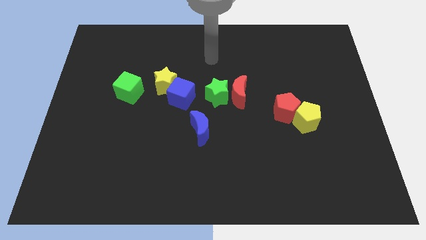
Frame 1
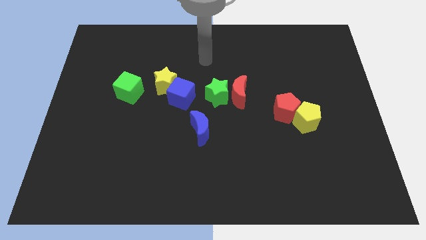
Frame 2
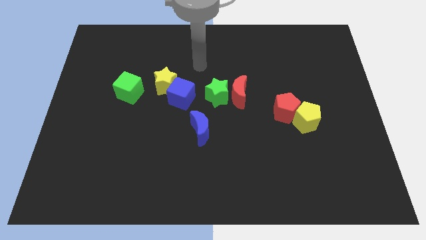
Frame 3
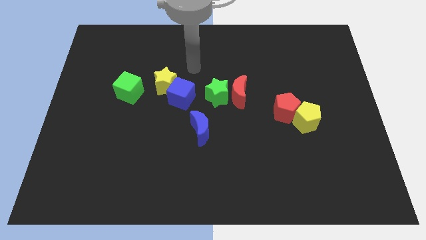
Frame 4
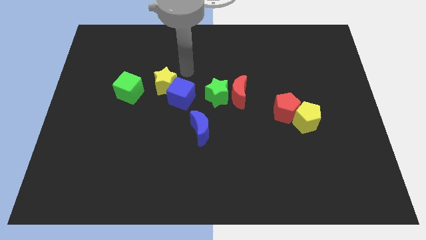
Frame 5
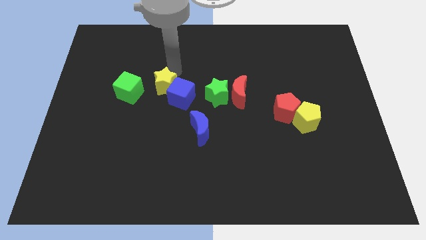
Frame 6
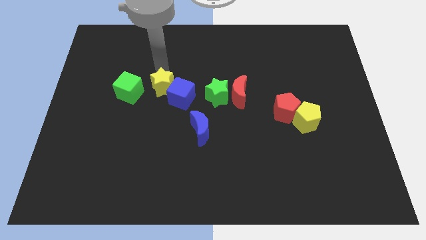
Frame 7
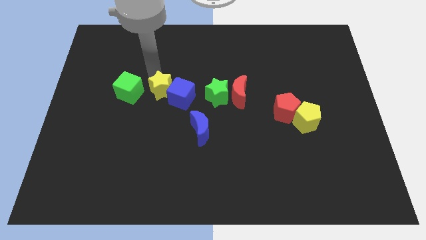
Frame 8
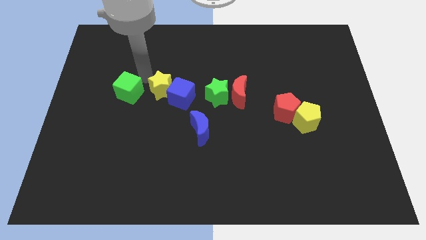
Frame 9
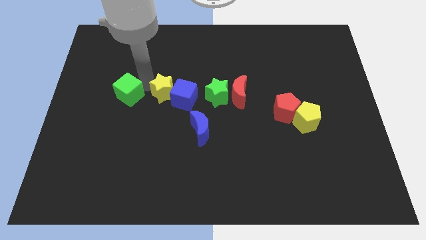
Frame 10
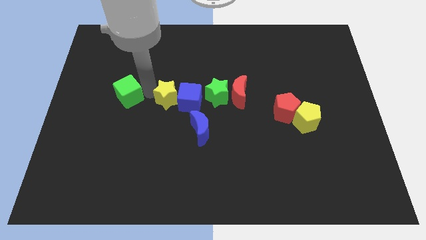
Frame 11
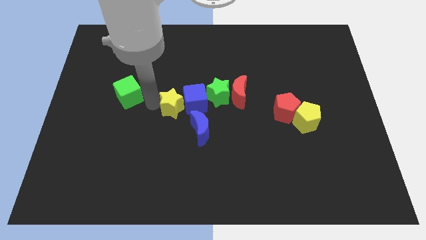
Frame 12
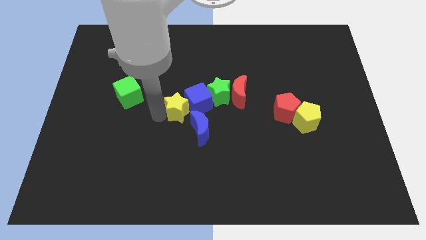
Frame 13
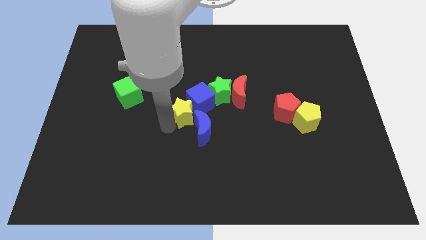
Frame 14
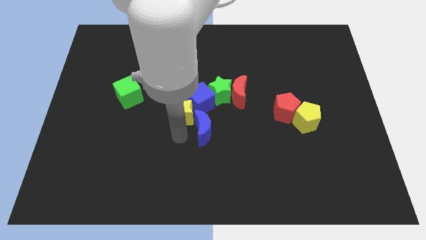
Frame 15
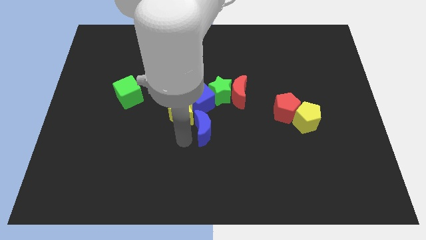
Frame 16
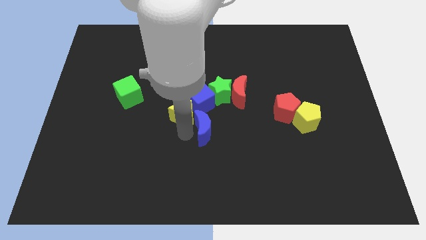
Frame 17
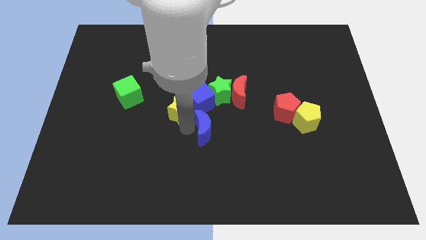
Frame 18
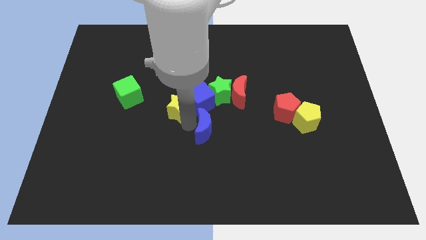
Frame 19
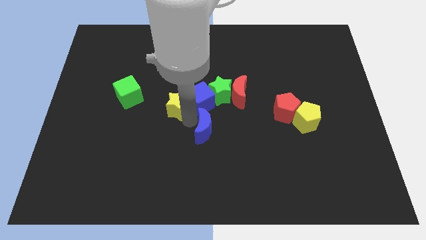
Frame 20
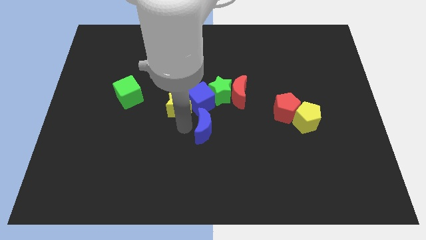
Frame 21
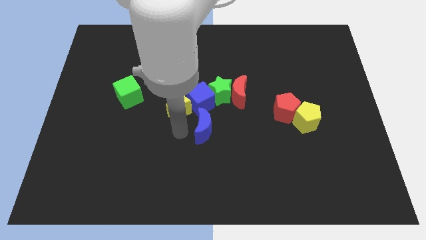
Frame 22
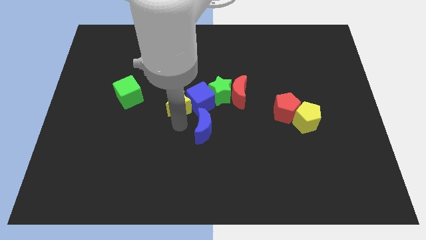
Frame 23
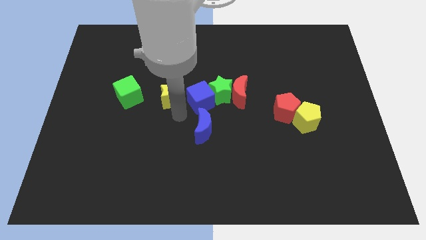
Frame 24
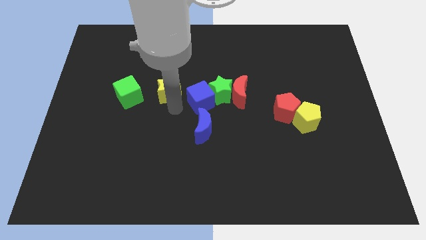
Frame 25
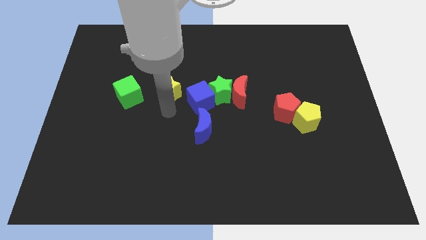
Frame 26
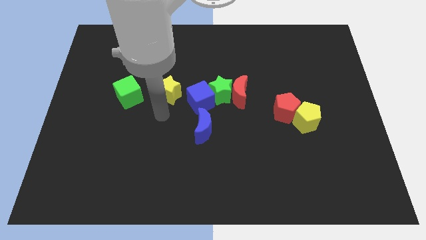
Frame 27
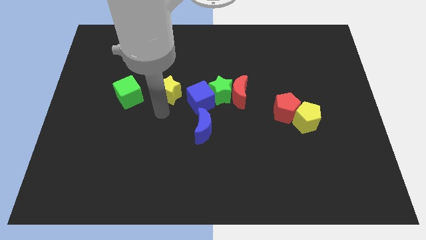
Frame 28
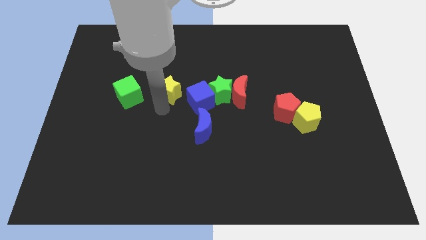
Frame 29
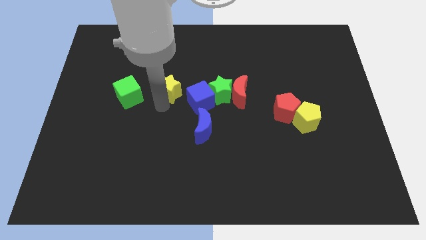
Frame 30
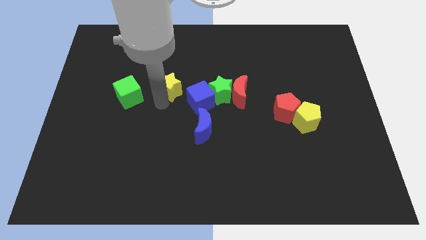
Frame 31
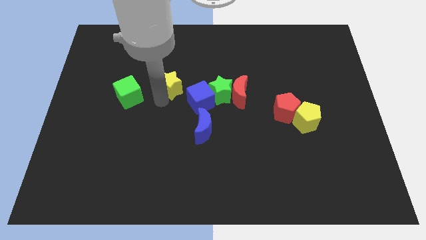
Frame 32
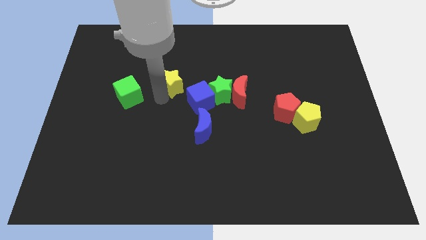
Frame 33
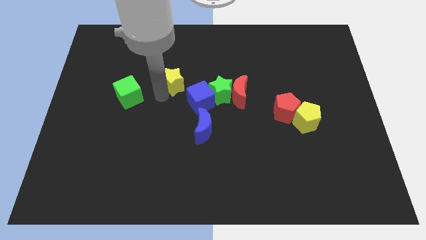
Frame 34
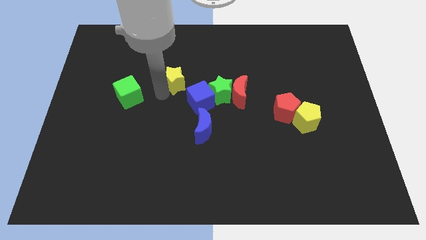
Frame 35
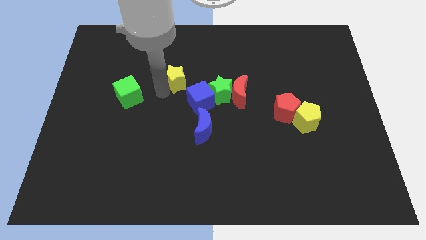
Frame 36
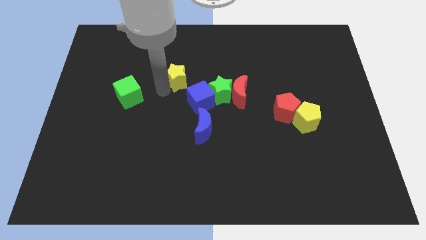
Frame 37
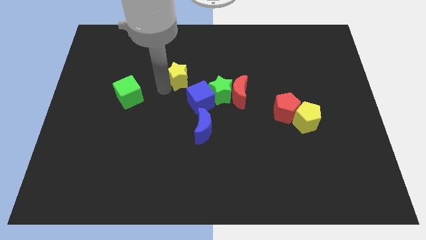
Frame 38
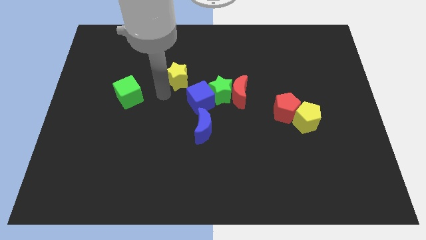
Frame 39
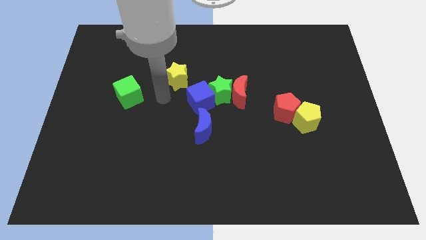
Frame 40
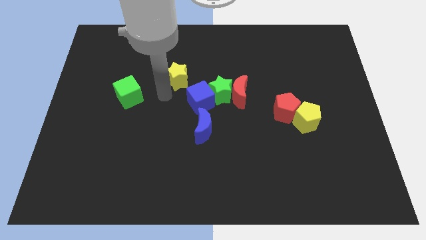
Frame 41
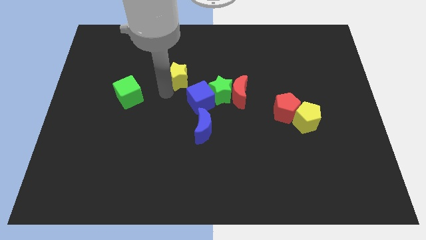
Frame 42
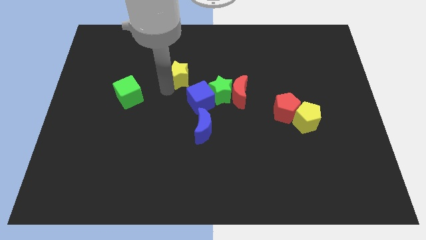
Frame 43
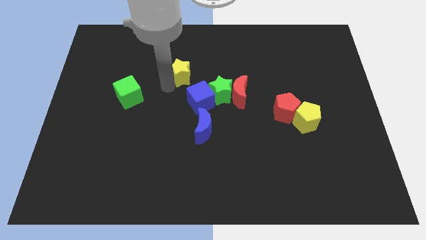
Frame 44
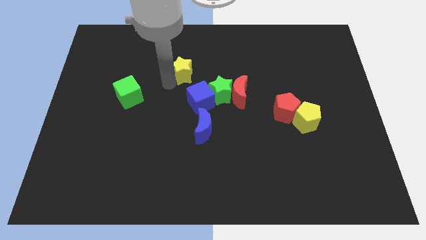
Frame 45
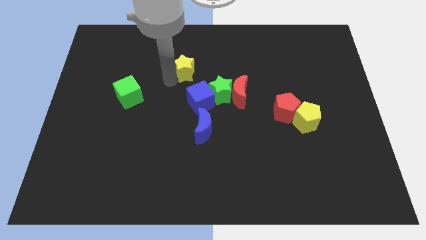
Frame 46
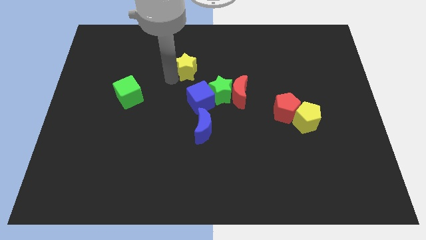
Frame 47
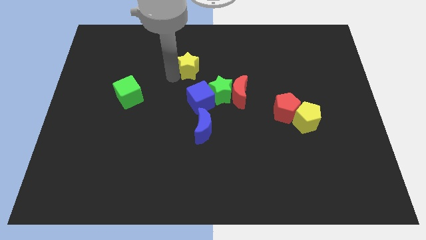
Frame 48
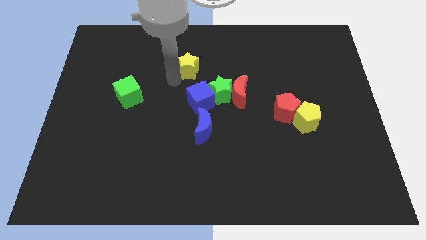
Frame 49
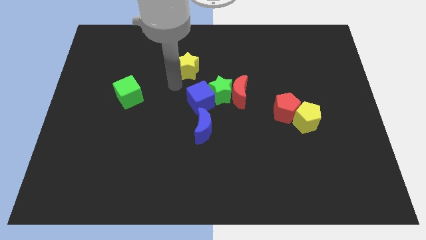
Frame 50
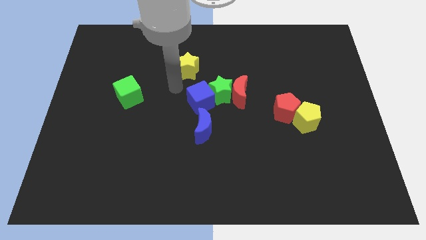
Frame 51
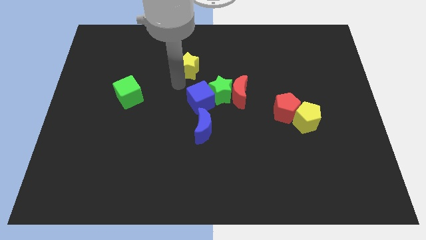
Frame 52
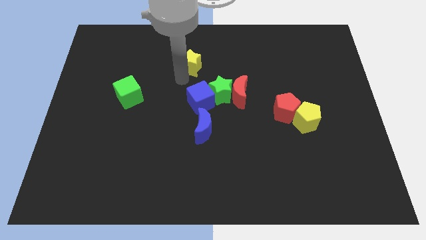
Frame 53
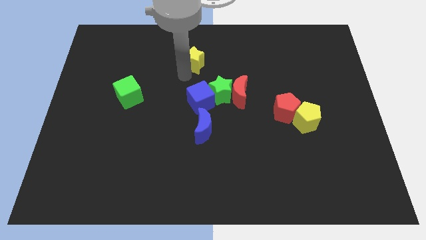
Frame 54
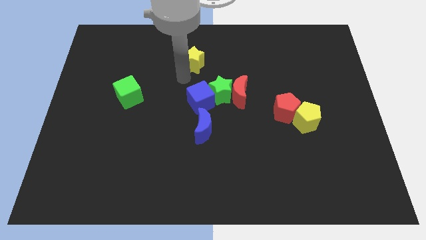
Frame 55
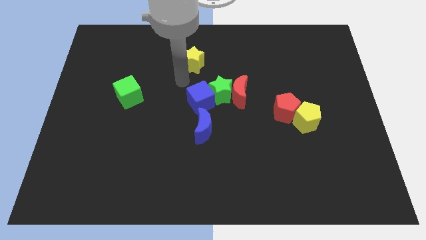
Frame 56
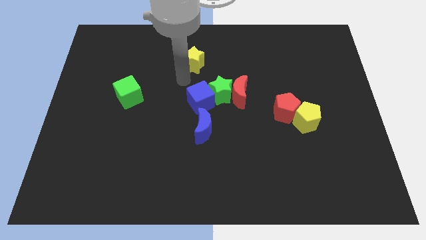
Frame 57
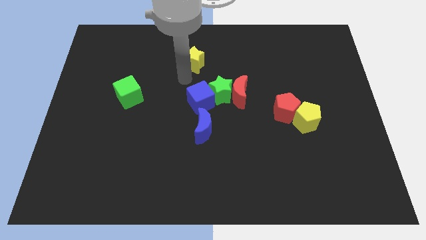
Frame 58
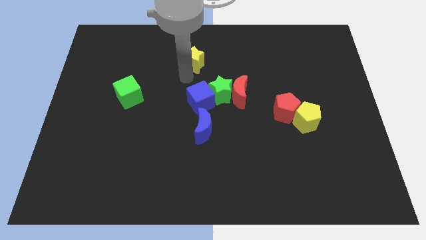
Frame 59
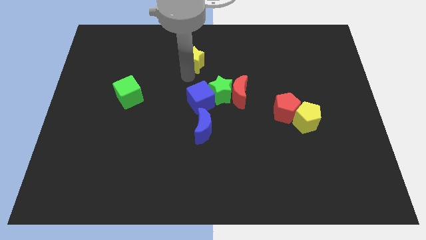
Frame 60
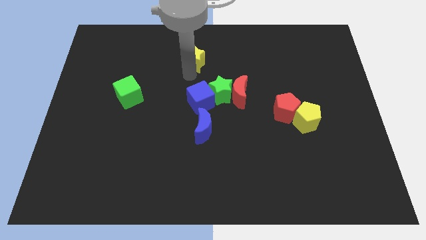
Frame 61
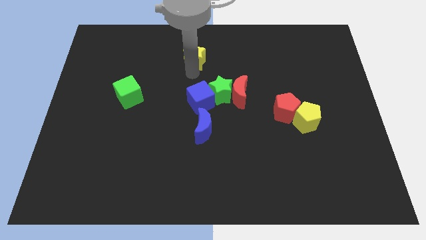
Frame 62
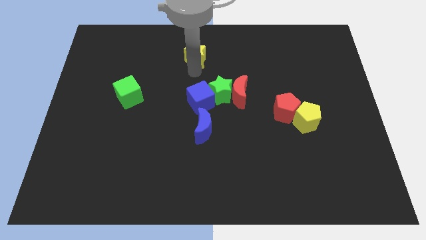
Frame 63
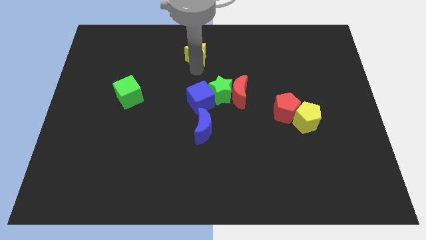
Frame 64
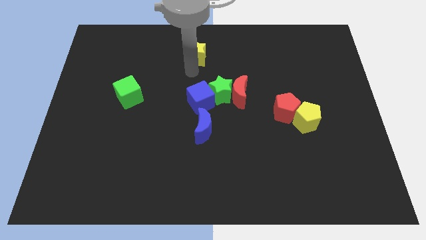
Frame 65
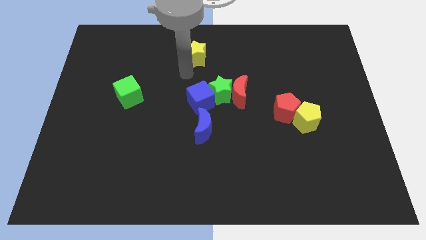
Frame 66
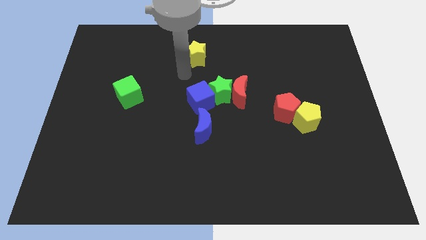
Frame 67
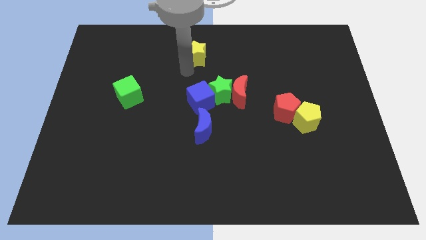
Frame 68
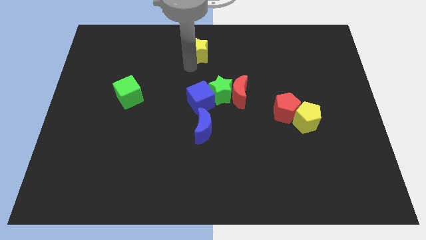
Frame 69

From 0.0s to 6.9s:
push the yellow star to the towards your base
